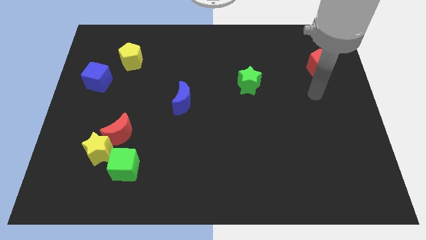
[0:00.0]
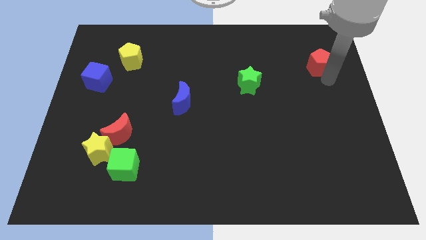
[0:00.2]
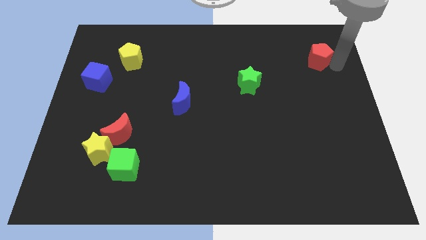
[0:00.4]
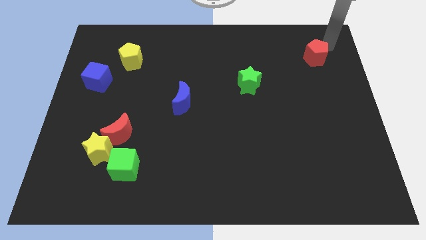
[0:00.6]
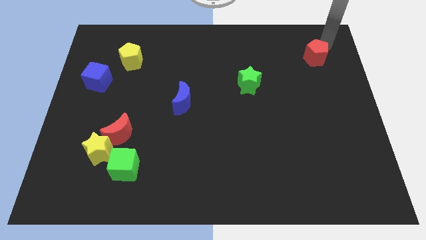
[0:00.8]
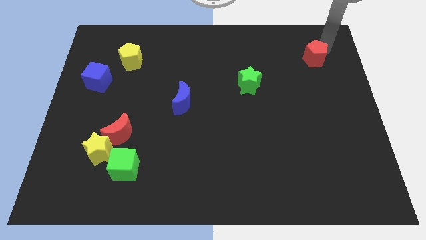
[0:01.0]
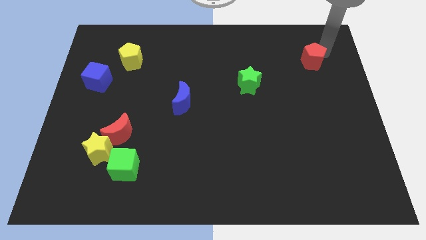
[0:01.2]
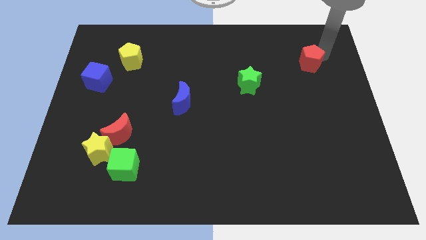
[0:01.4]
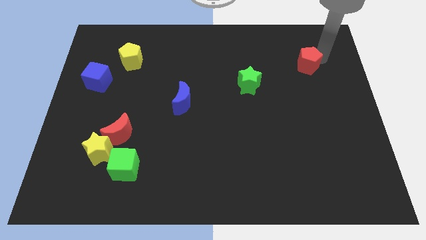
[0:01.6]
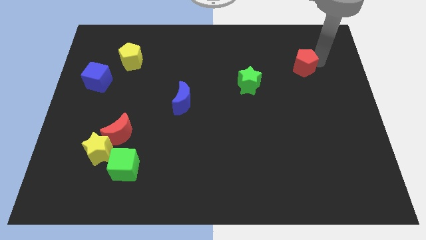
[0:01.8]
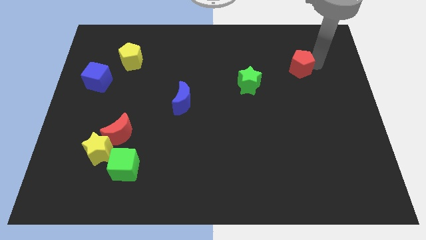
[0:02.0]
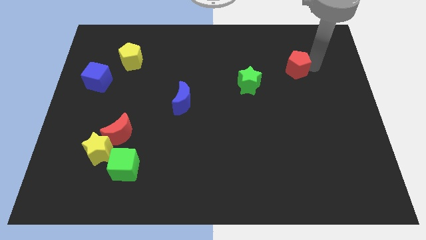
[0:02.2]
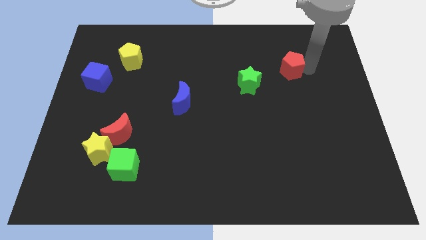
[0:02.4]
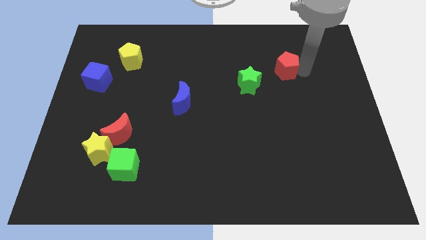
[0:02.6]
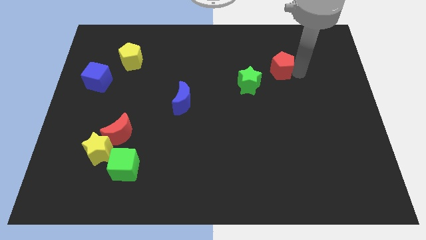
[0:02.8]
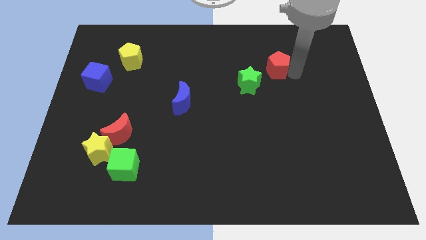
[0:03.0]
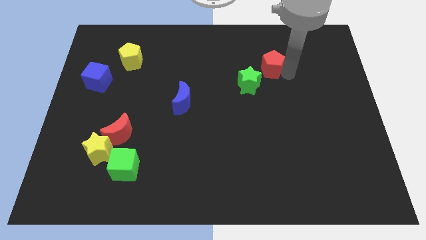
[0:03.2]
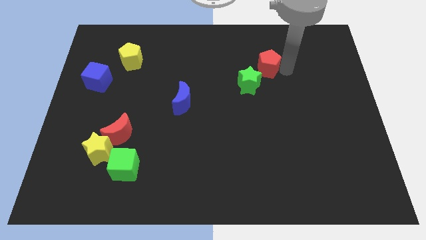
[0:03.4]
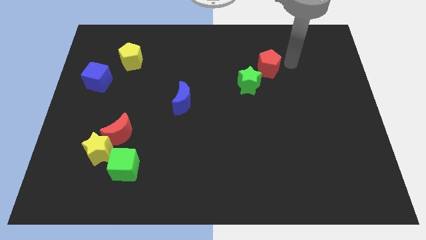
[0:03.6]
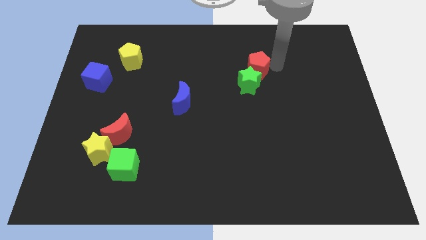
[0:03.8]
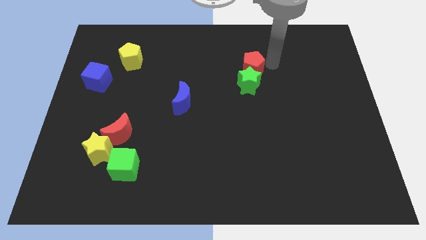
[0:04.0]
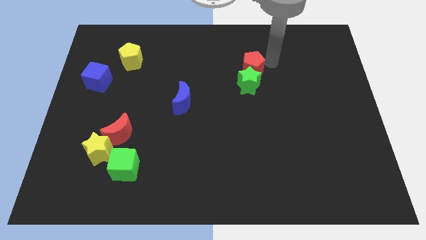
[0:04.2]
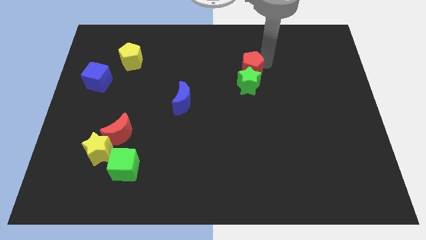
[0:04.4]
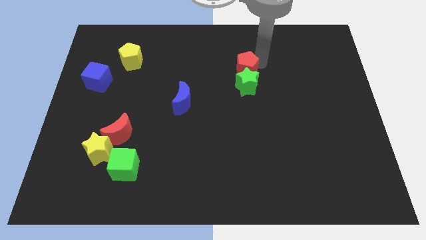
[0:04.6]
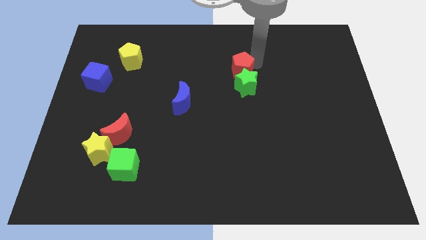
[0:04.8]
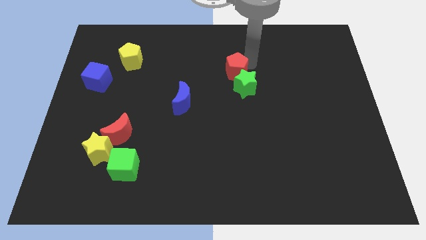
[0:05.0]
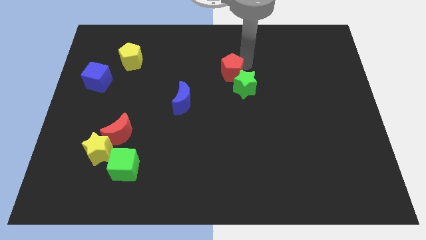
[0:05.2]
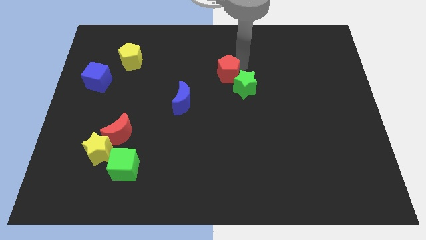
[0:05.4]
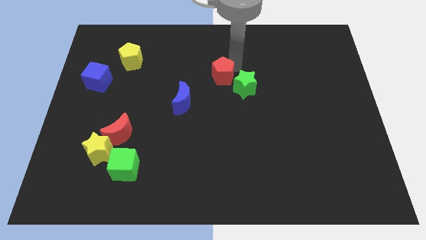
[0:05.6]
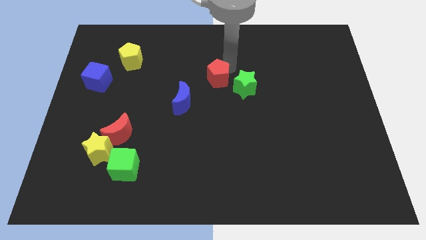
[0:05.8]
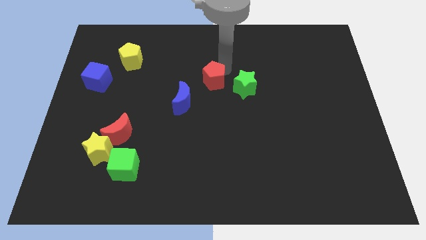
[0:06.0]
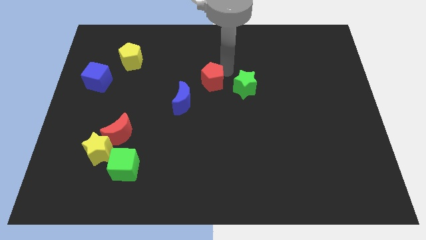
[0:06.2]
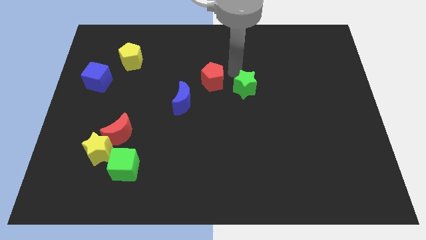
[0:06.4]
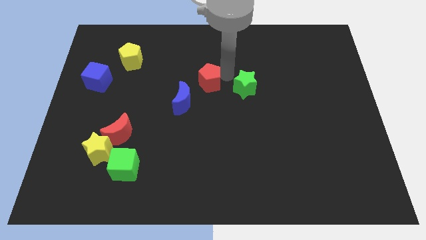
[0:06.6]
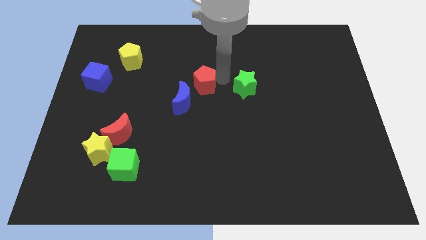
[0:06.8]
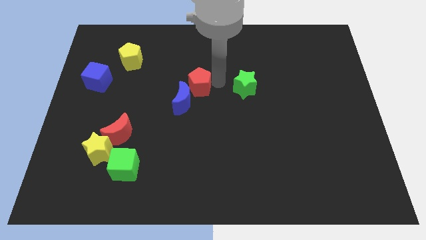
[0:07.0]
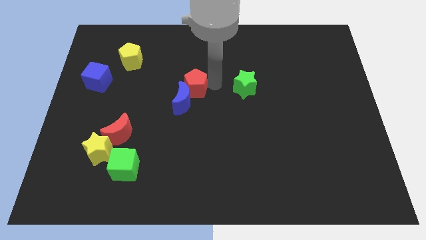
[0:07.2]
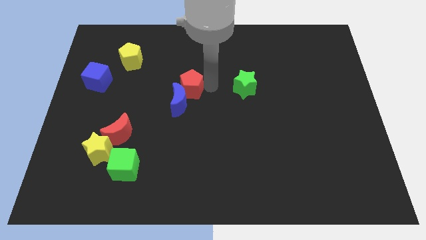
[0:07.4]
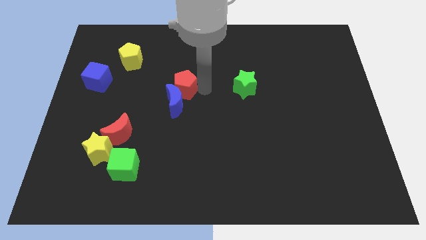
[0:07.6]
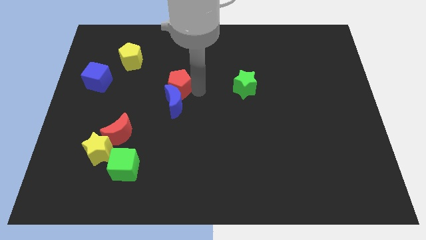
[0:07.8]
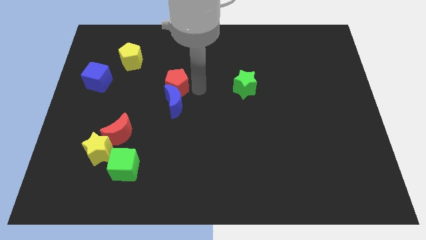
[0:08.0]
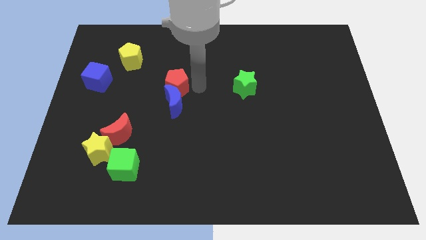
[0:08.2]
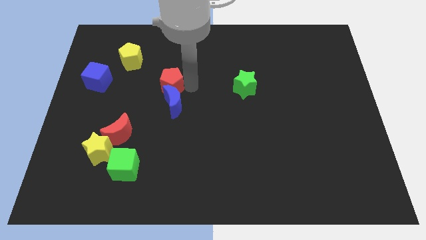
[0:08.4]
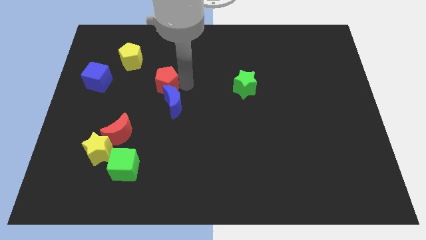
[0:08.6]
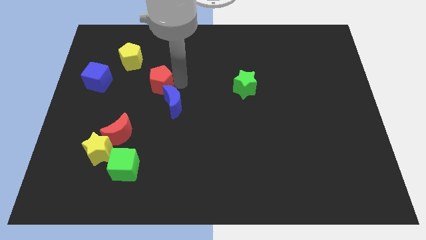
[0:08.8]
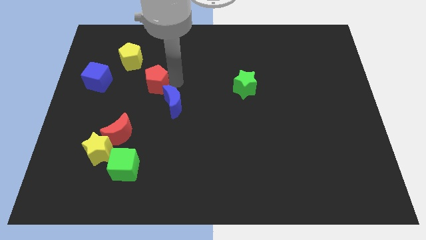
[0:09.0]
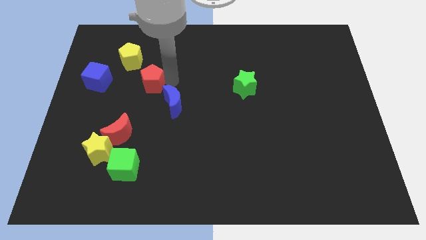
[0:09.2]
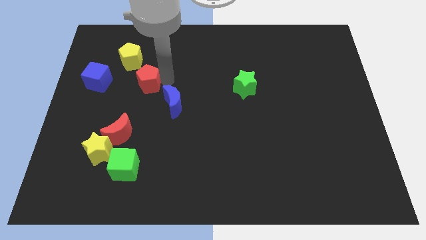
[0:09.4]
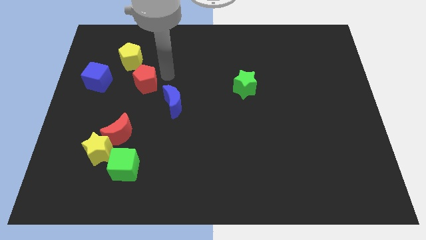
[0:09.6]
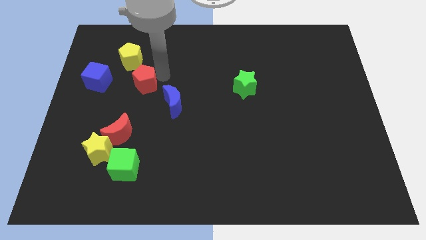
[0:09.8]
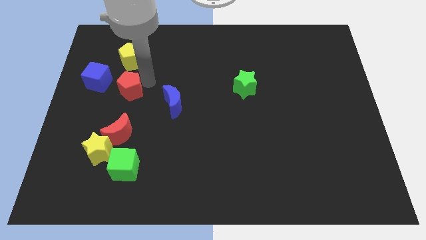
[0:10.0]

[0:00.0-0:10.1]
move the red pentagon to the bottom right of the blue cube

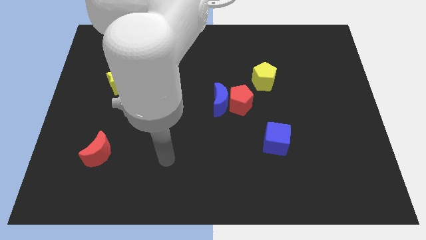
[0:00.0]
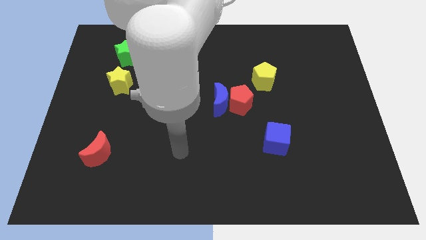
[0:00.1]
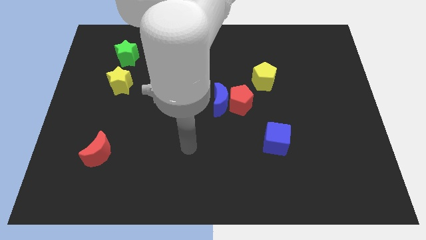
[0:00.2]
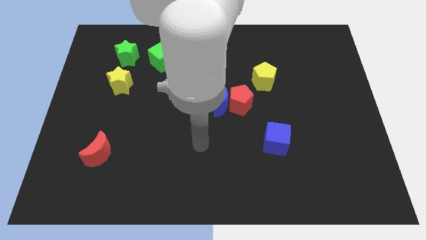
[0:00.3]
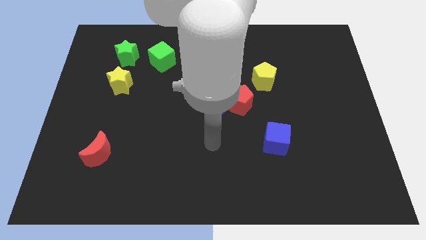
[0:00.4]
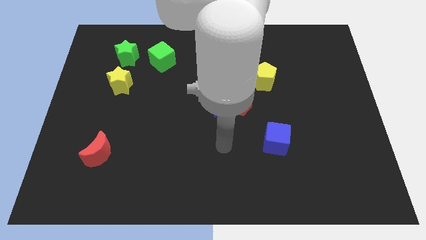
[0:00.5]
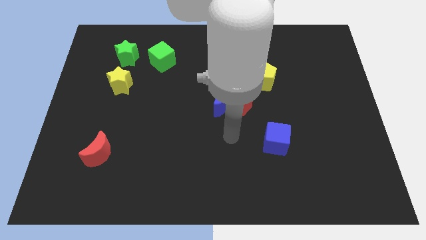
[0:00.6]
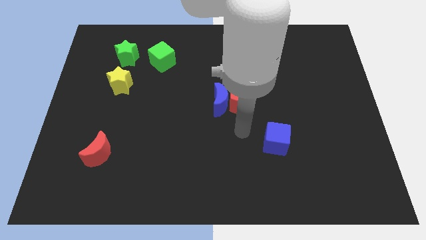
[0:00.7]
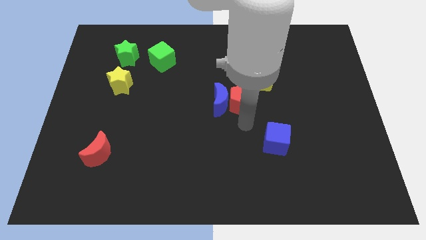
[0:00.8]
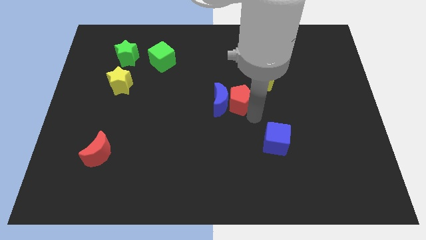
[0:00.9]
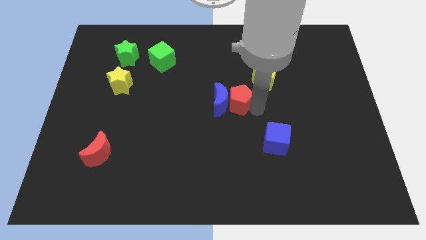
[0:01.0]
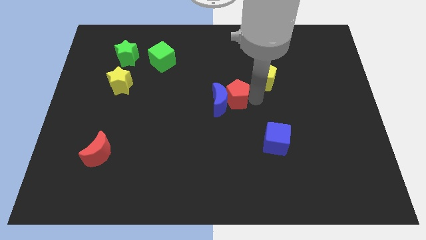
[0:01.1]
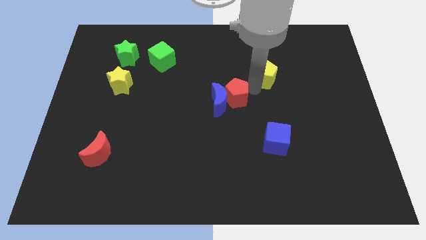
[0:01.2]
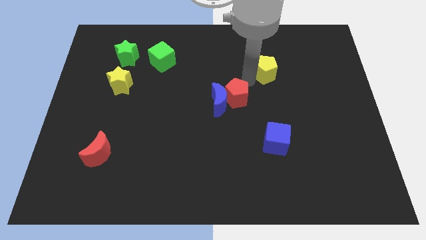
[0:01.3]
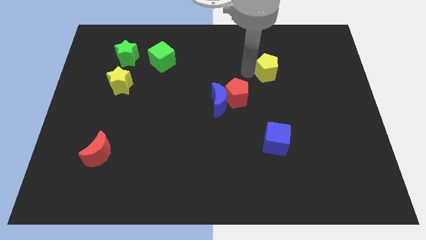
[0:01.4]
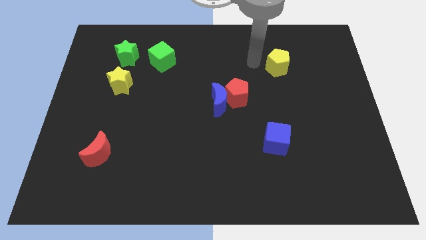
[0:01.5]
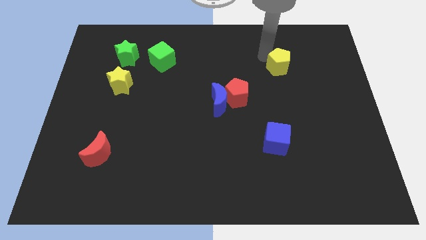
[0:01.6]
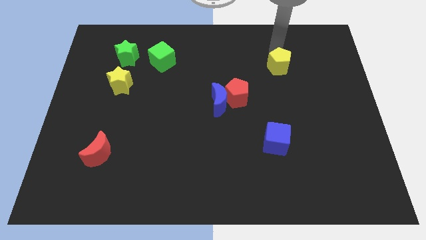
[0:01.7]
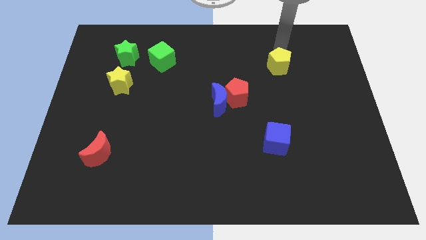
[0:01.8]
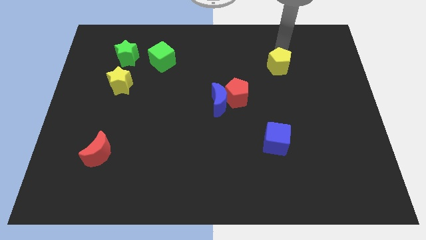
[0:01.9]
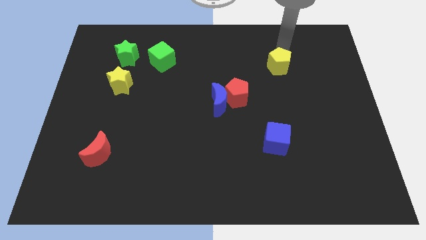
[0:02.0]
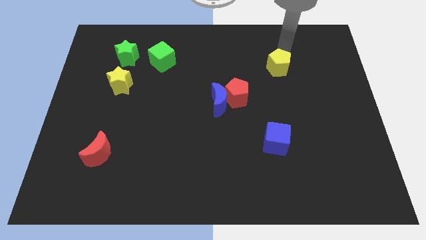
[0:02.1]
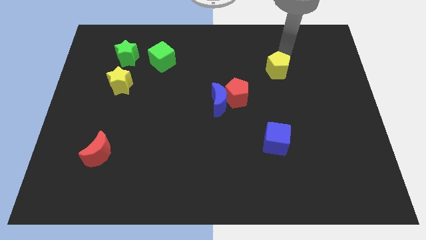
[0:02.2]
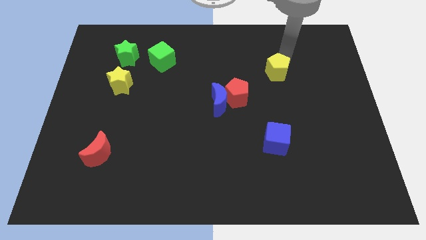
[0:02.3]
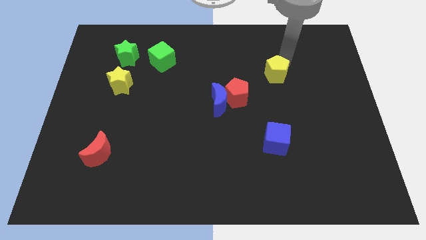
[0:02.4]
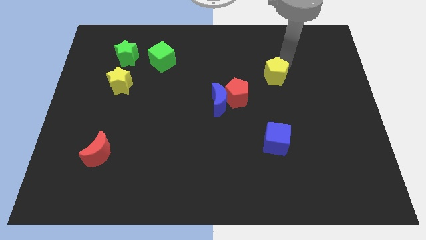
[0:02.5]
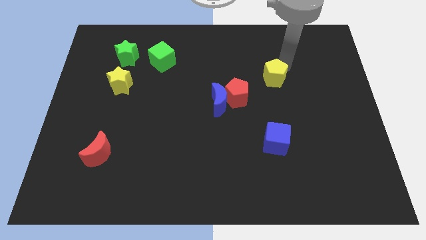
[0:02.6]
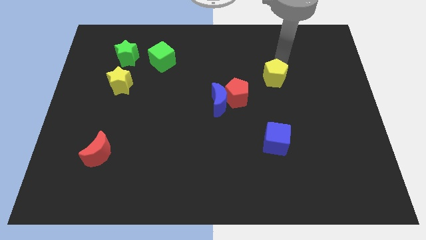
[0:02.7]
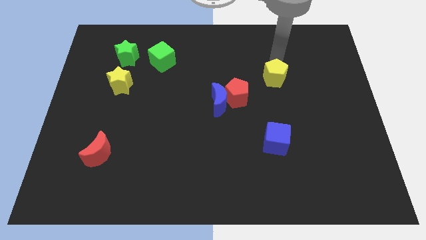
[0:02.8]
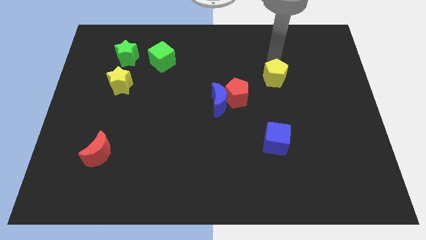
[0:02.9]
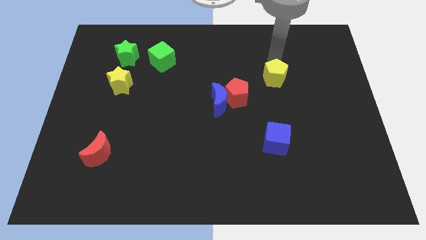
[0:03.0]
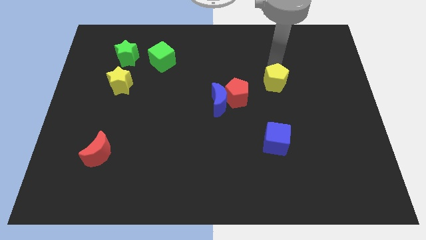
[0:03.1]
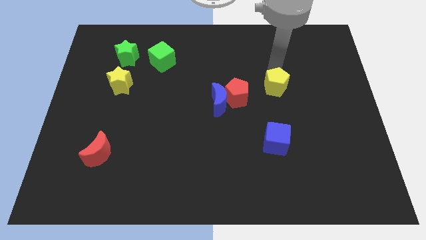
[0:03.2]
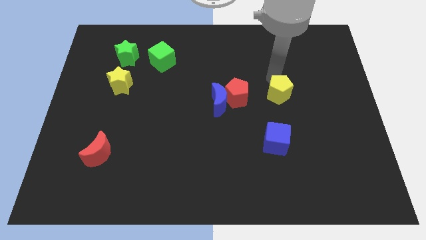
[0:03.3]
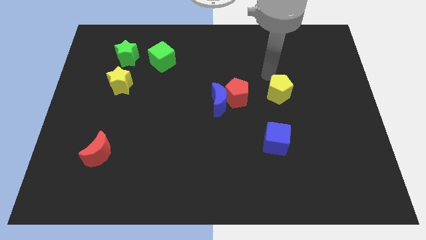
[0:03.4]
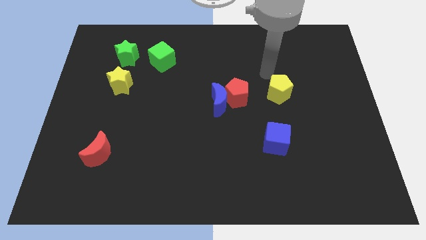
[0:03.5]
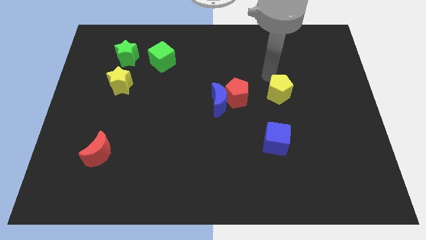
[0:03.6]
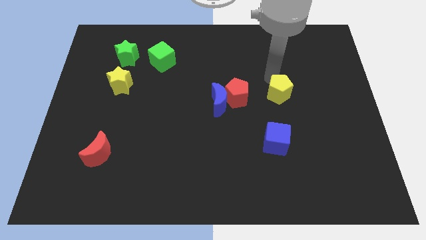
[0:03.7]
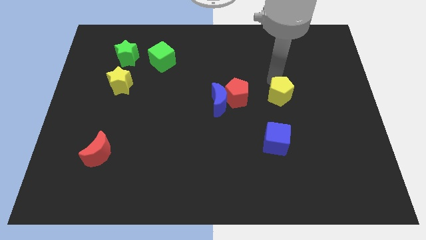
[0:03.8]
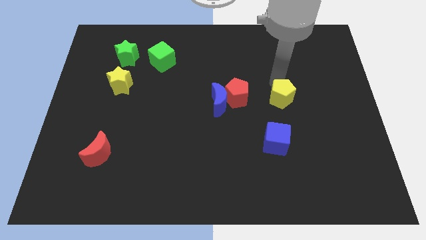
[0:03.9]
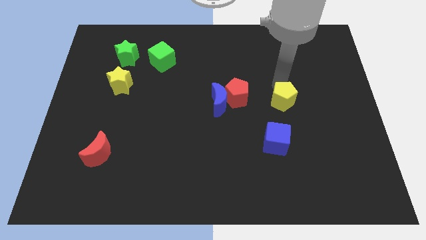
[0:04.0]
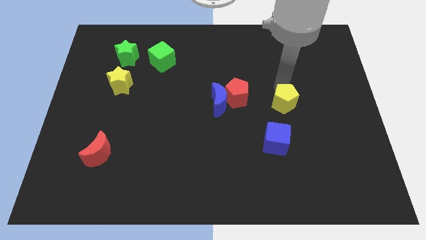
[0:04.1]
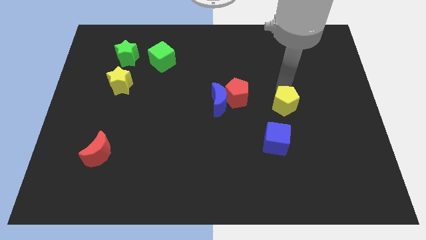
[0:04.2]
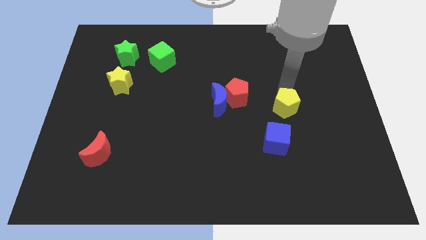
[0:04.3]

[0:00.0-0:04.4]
move the yellow pentagon diagonally up and to the right of the blue cube
